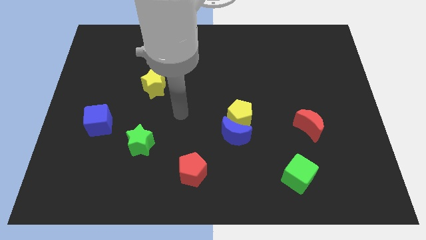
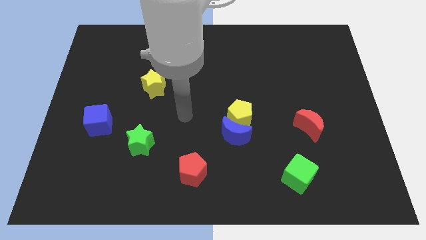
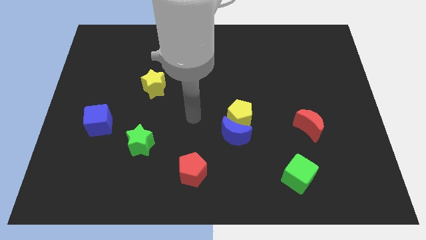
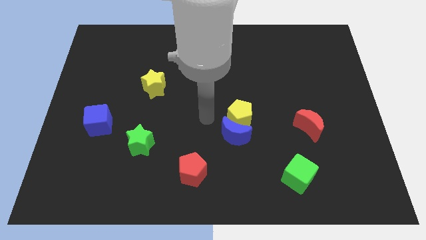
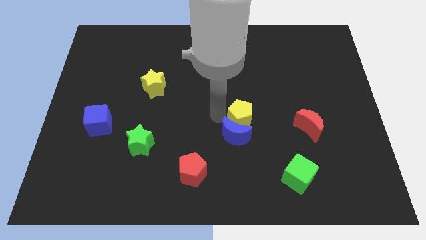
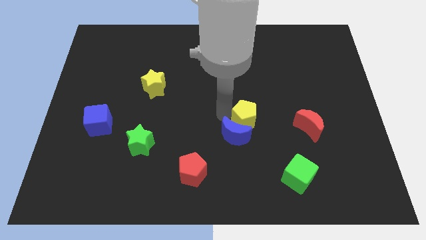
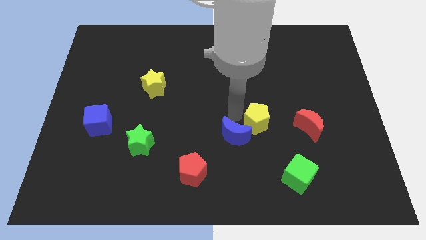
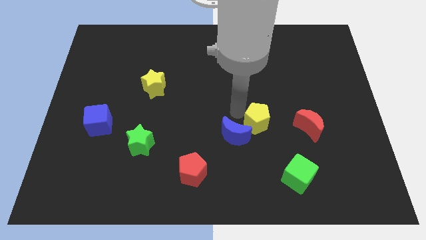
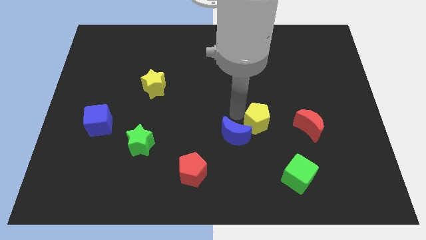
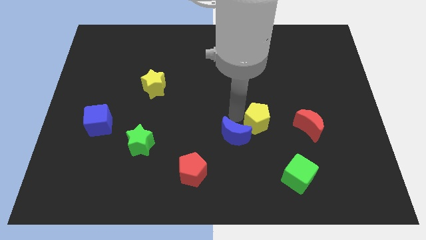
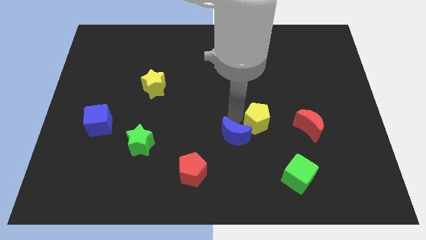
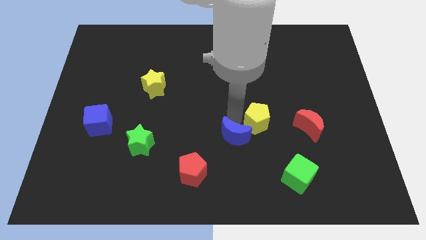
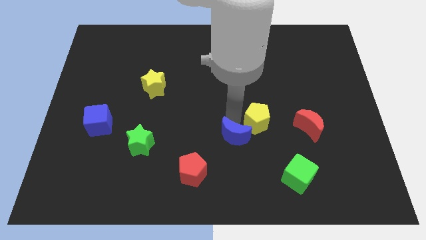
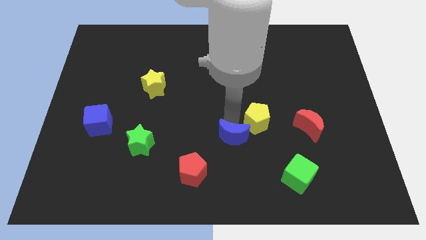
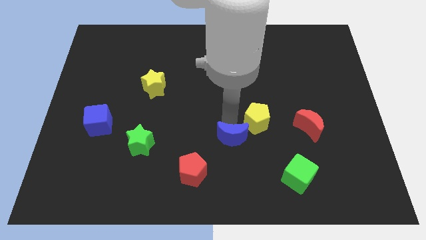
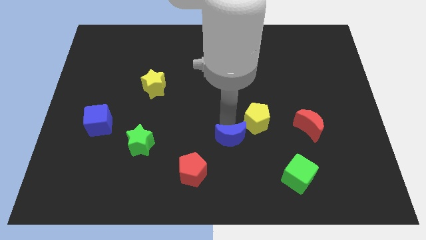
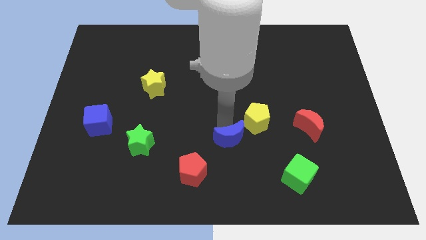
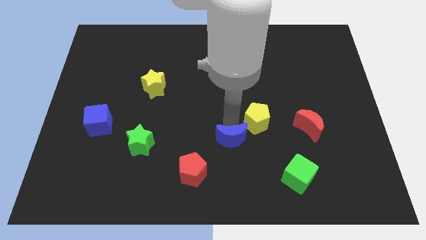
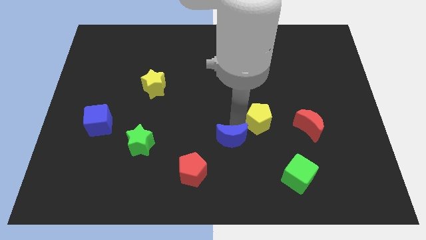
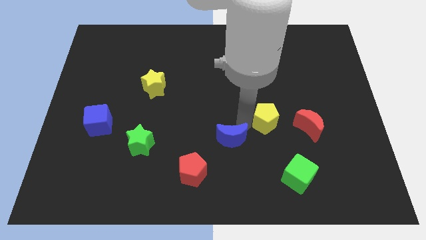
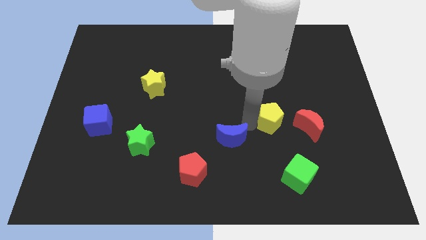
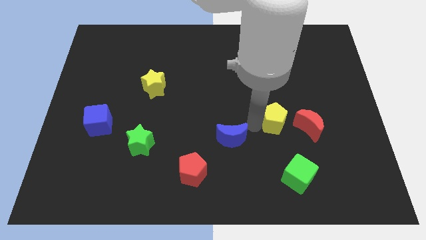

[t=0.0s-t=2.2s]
move the blue moon away from the yellow pentagon

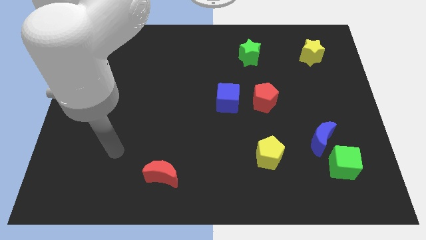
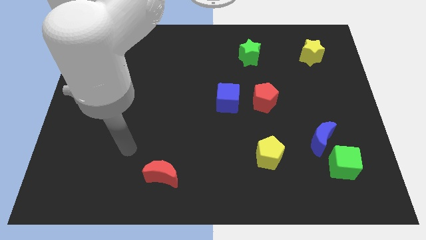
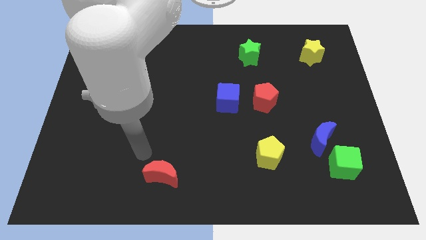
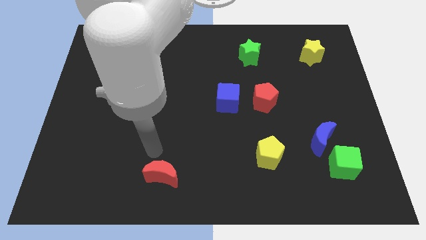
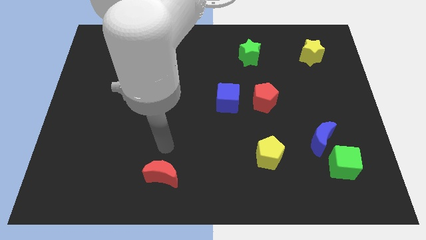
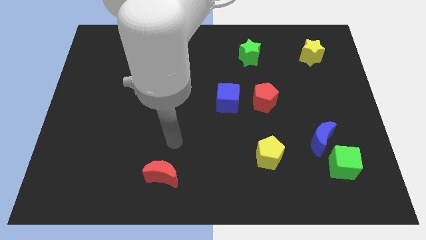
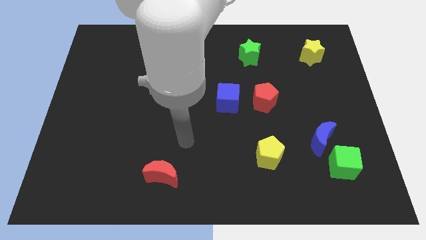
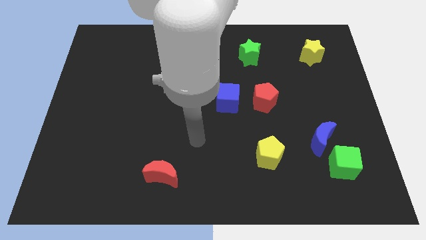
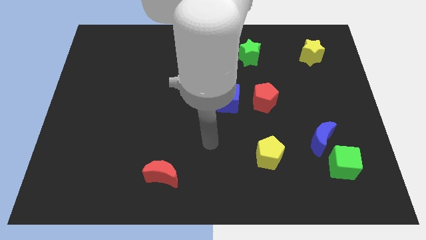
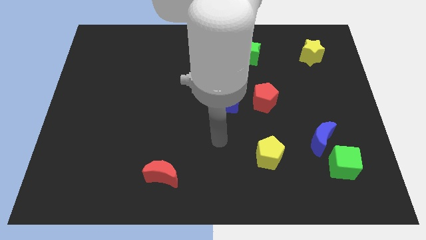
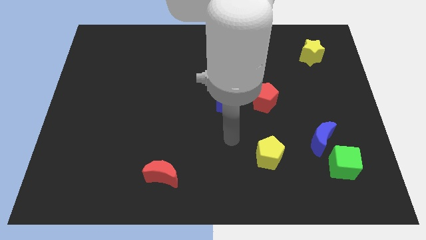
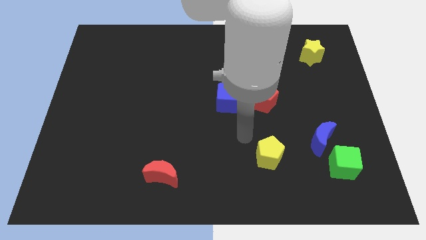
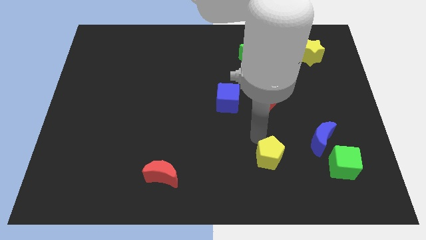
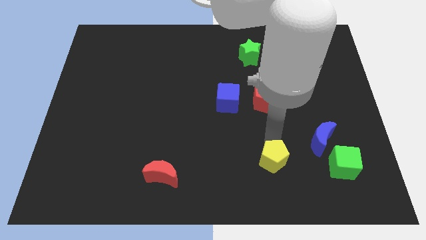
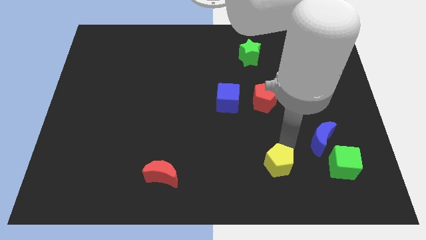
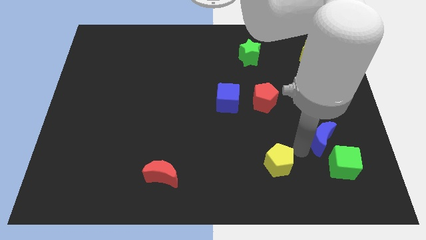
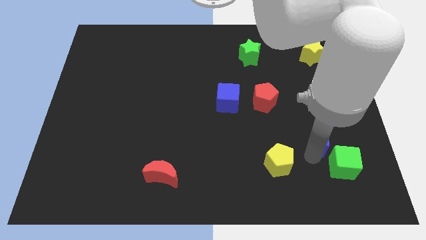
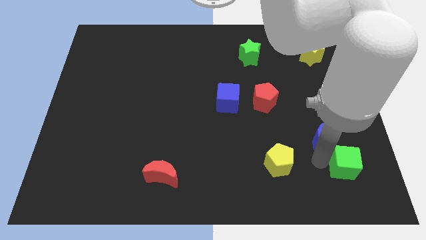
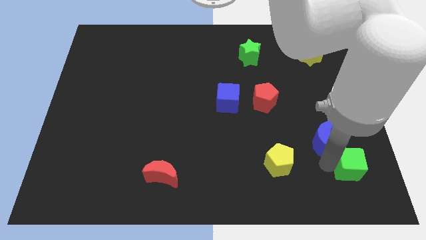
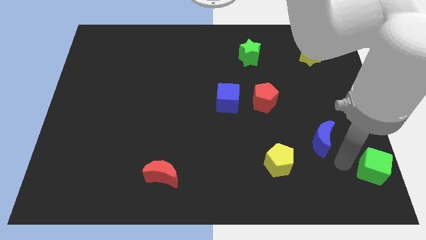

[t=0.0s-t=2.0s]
separate the blue moon from the green cube

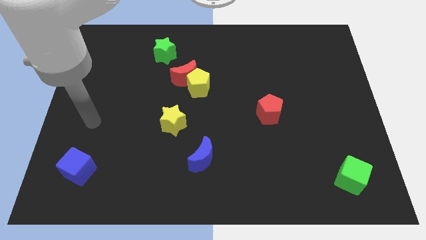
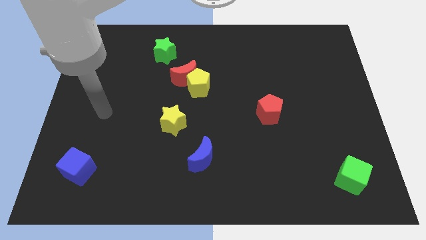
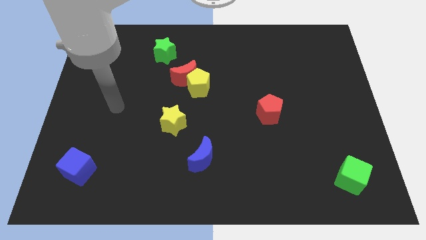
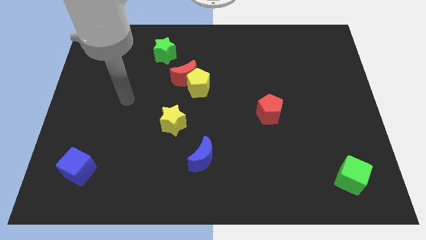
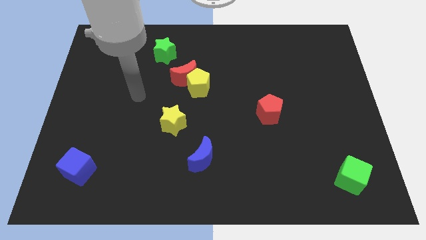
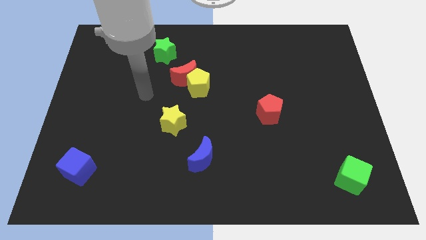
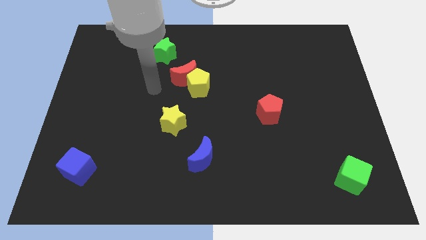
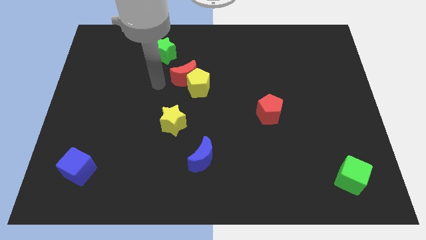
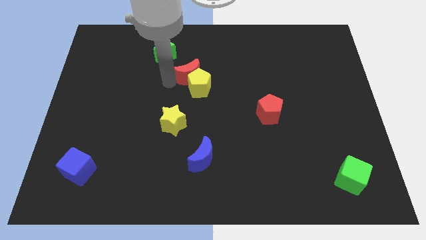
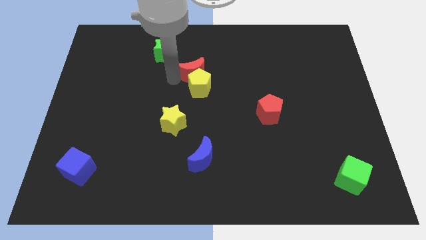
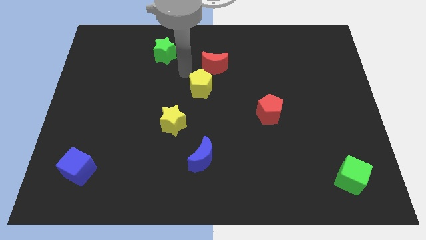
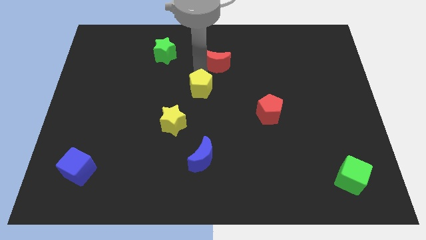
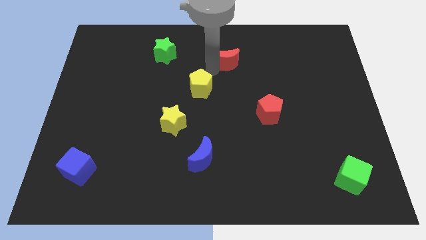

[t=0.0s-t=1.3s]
separate the yellow pentagon from the red moon

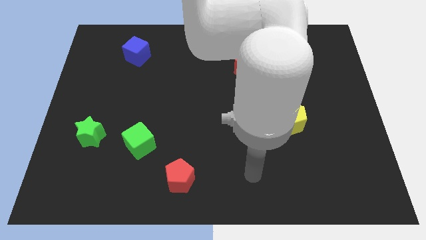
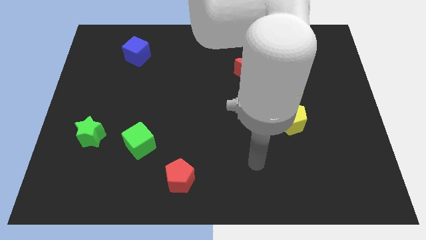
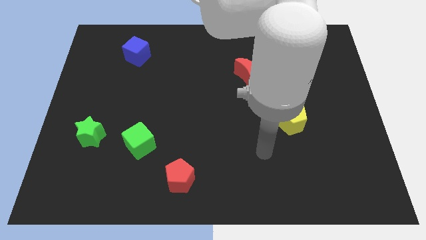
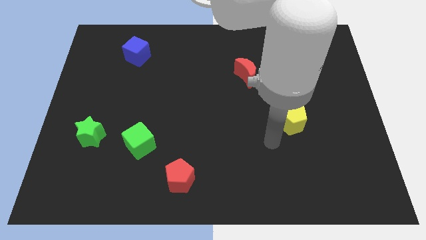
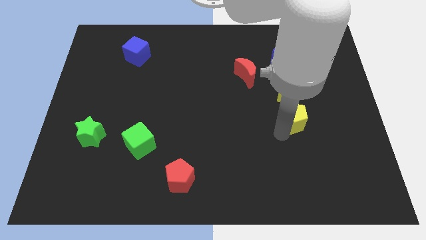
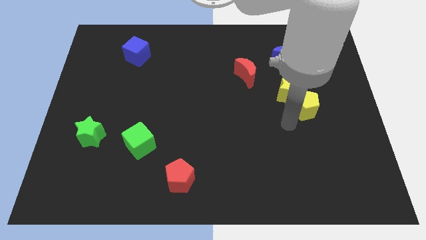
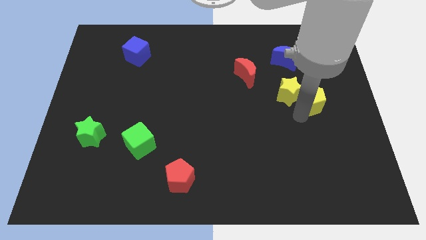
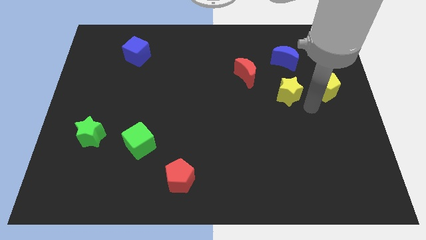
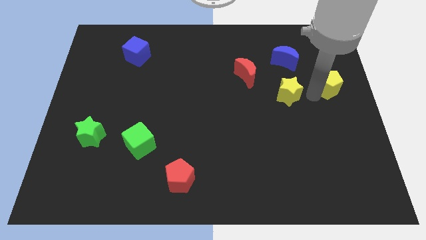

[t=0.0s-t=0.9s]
pull the yellow star apart from the yellow pentagon

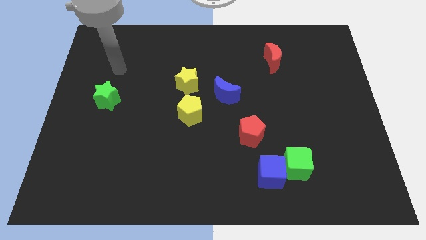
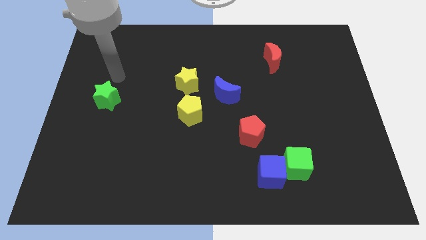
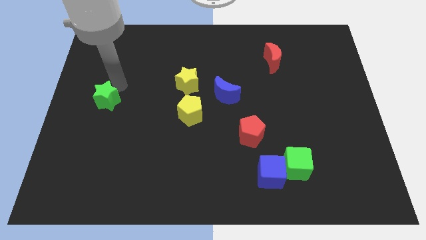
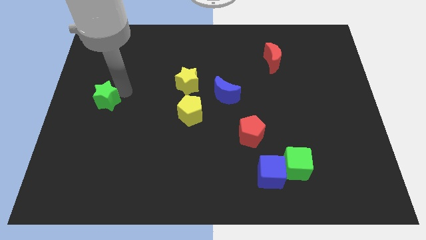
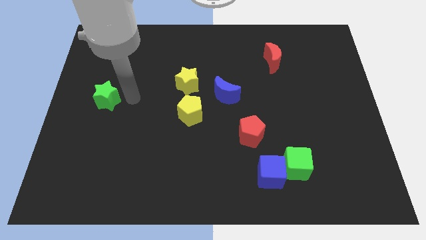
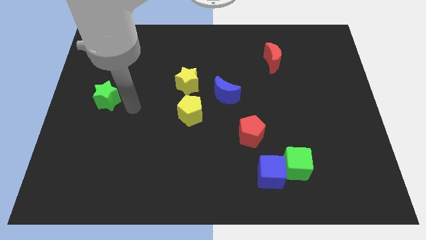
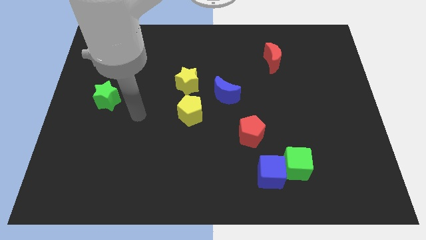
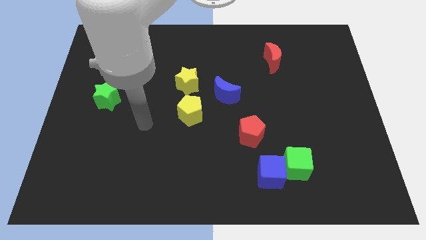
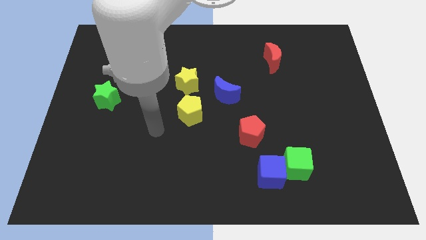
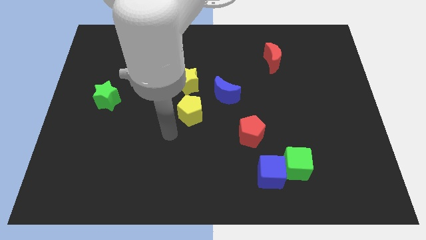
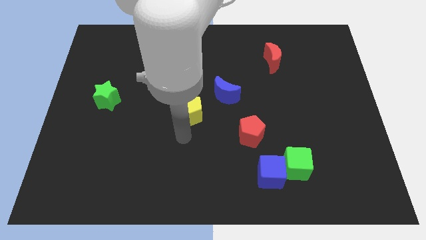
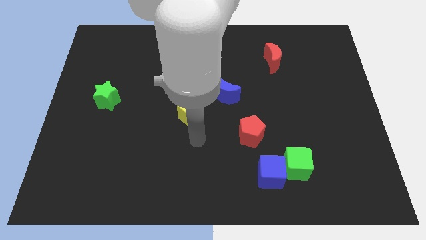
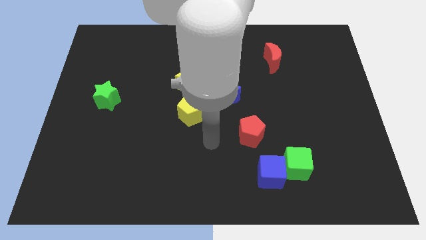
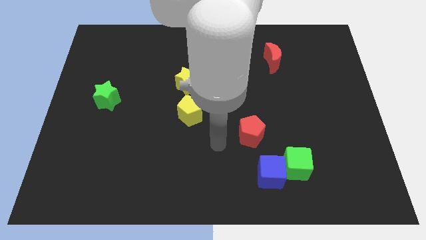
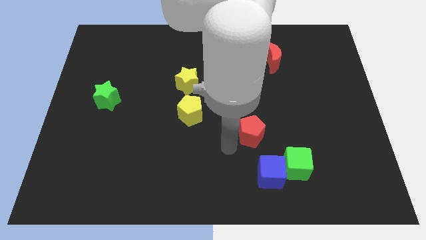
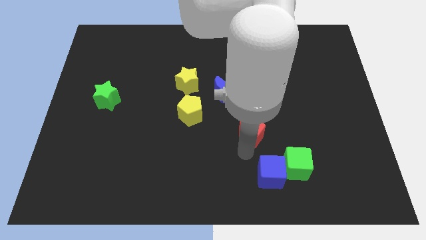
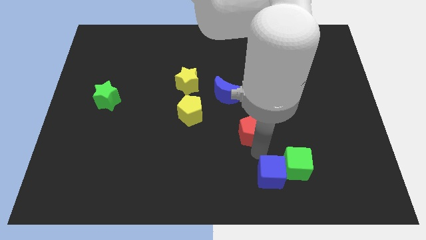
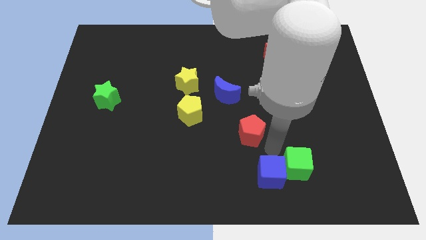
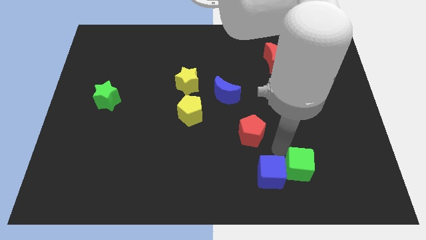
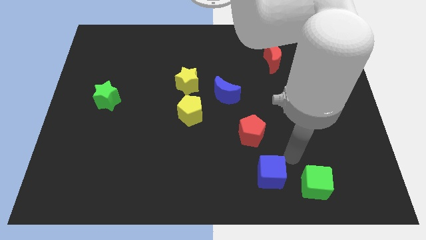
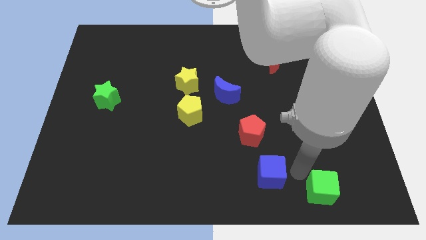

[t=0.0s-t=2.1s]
pull the blue cube apart from the green cube

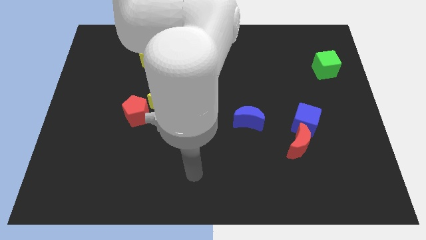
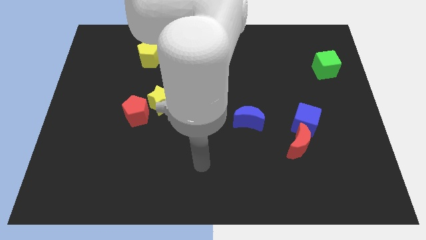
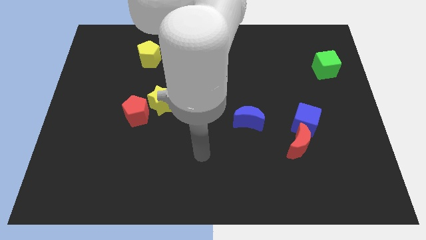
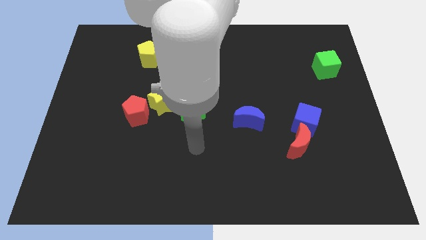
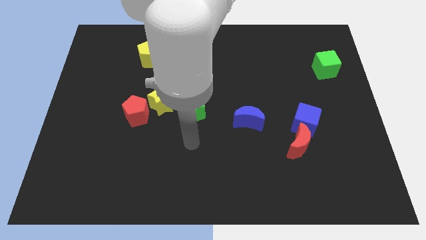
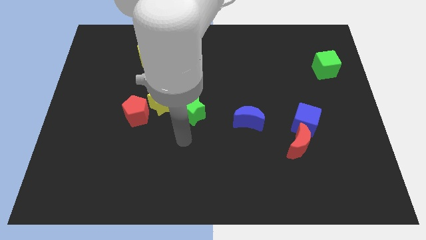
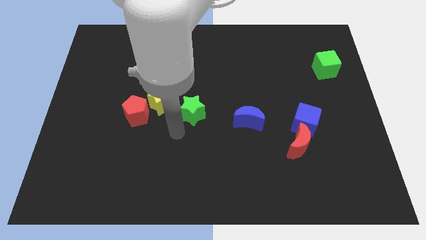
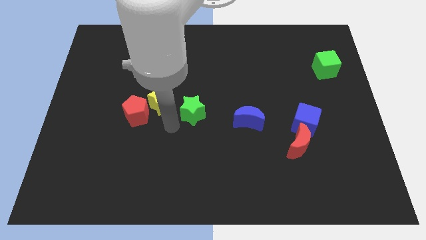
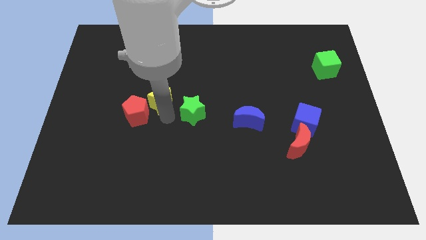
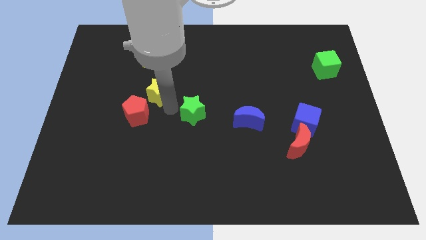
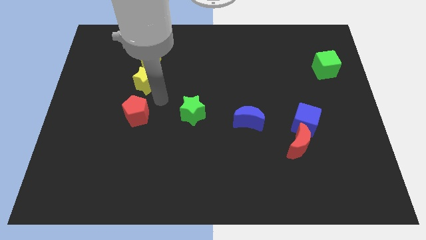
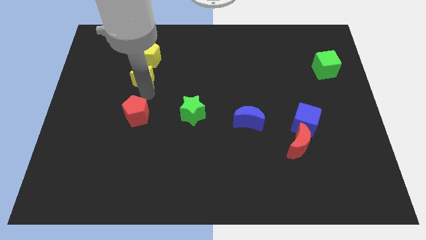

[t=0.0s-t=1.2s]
pull the red pentagon apart from the yellow star
